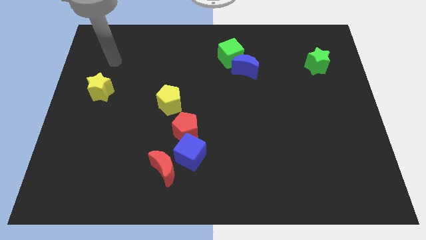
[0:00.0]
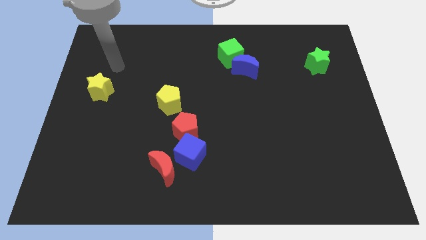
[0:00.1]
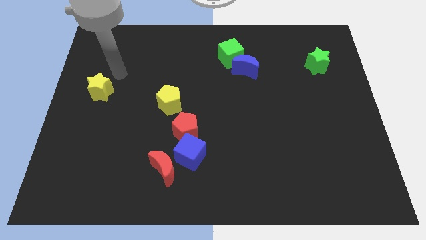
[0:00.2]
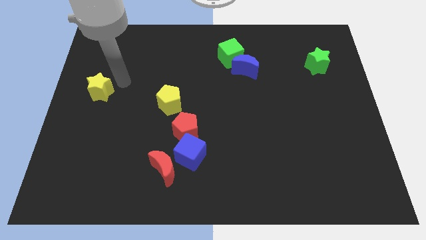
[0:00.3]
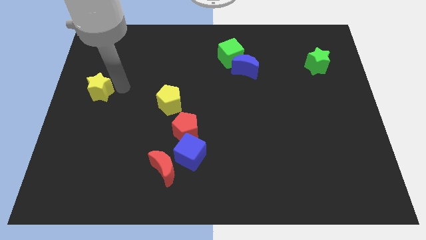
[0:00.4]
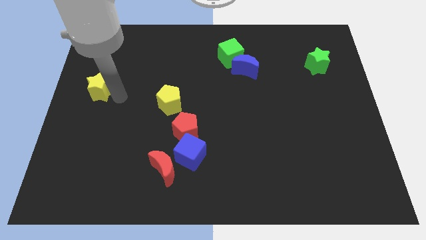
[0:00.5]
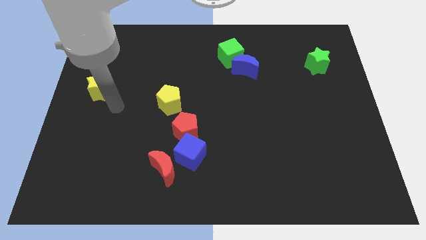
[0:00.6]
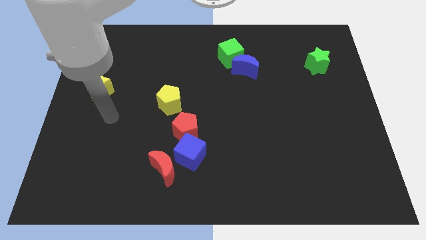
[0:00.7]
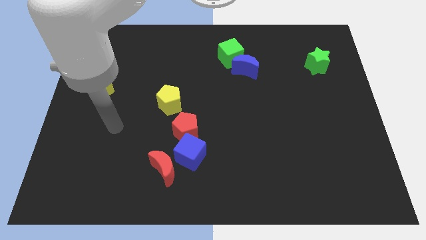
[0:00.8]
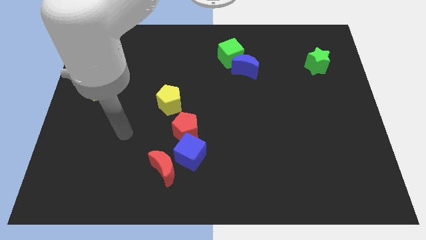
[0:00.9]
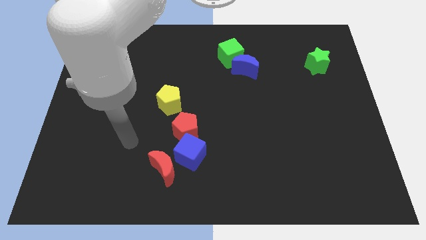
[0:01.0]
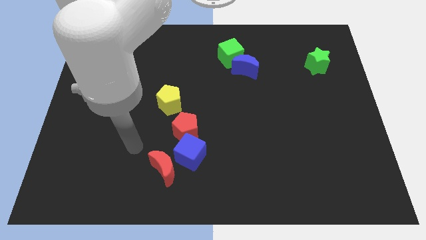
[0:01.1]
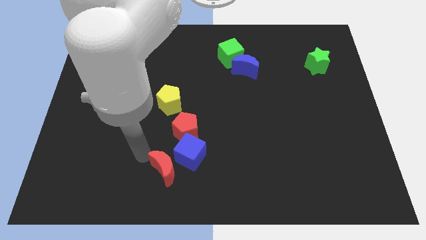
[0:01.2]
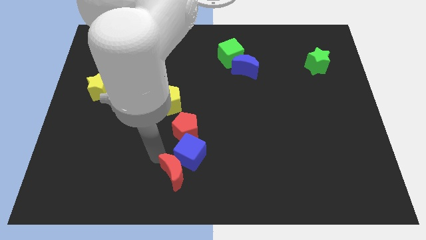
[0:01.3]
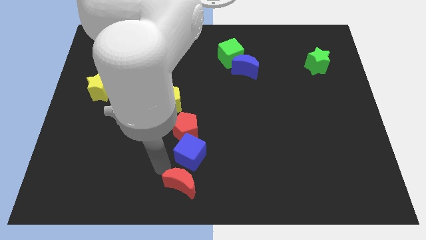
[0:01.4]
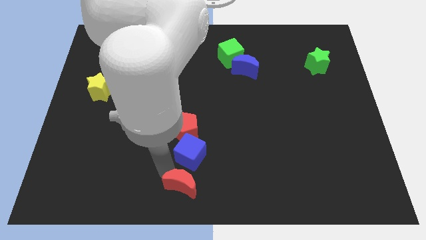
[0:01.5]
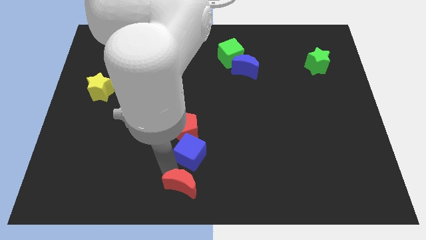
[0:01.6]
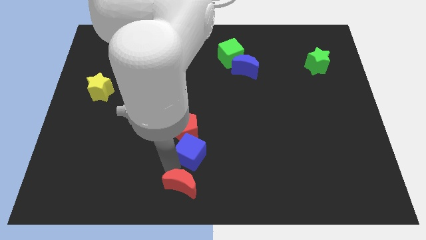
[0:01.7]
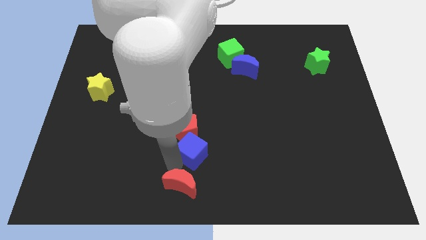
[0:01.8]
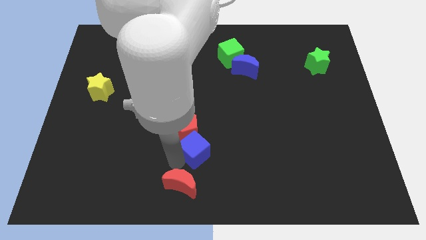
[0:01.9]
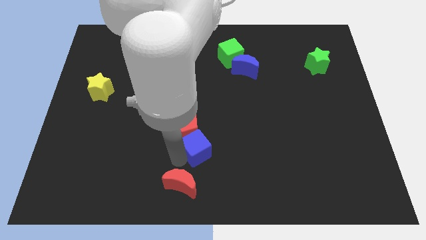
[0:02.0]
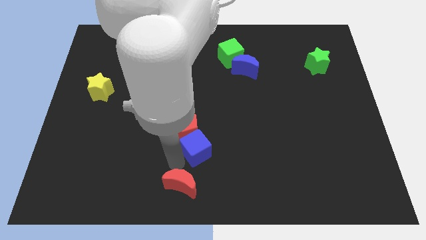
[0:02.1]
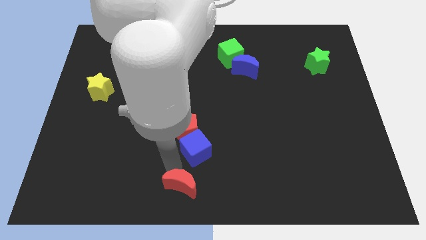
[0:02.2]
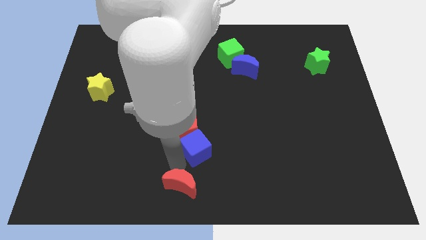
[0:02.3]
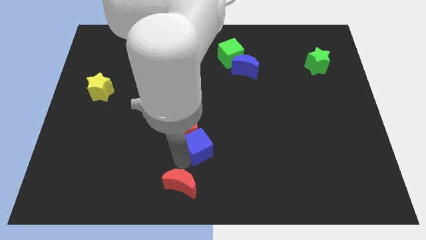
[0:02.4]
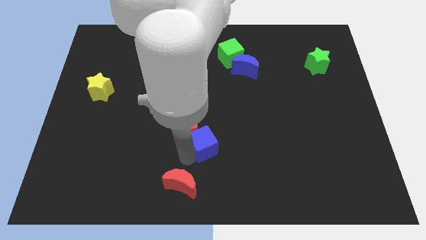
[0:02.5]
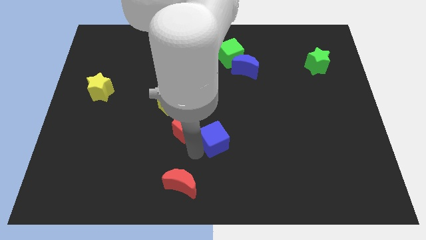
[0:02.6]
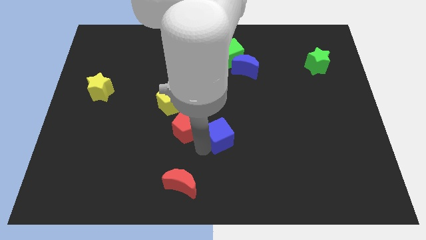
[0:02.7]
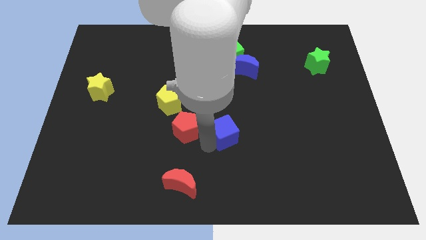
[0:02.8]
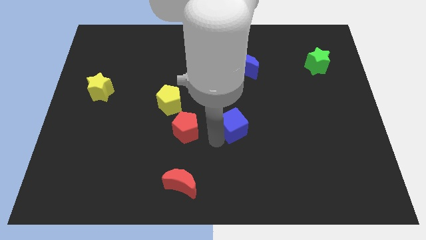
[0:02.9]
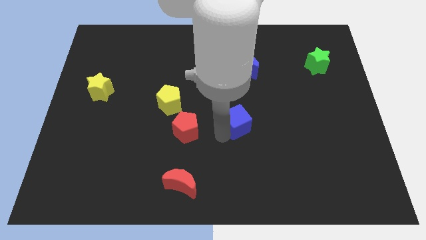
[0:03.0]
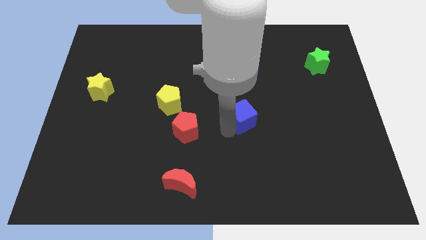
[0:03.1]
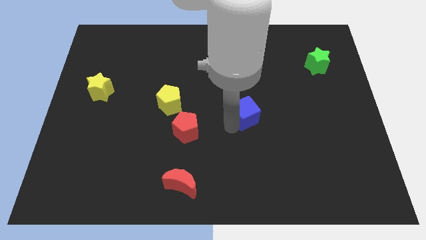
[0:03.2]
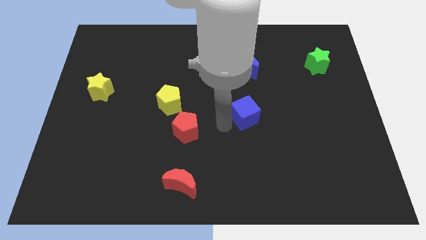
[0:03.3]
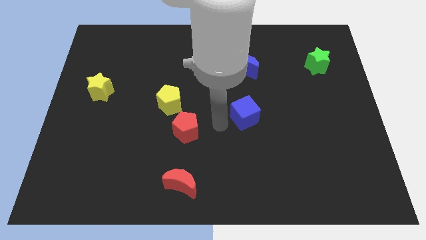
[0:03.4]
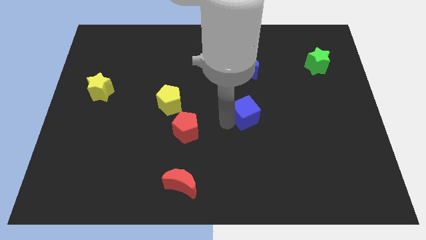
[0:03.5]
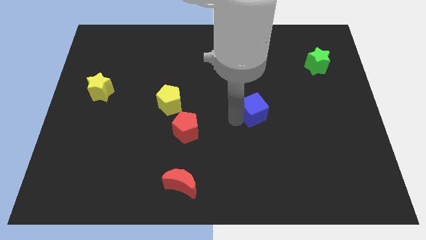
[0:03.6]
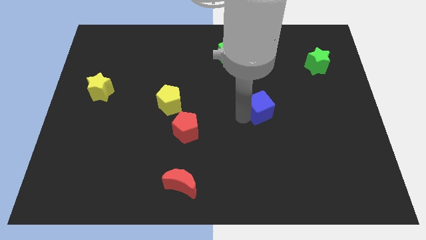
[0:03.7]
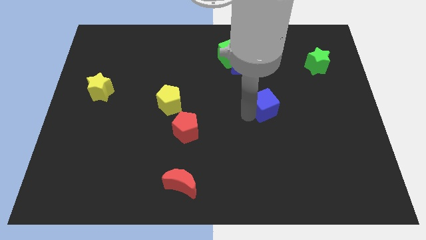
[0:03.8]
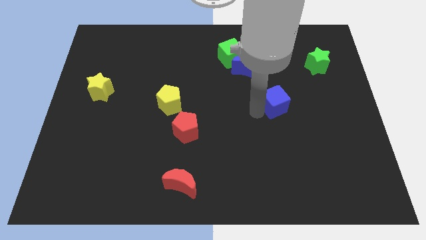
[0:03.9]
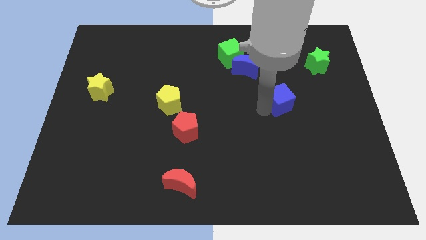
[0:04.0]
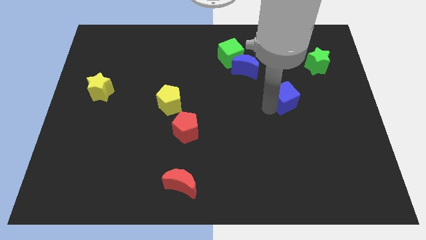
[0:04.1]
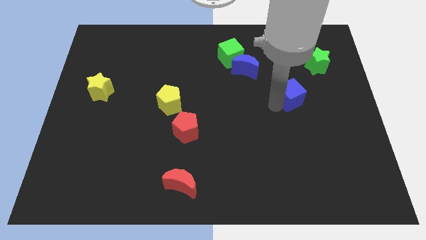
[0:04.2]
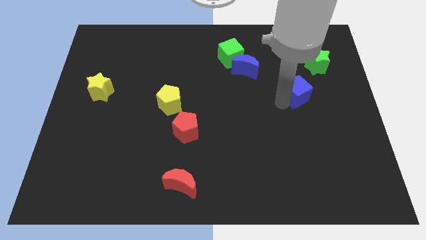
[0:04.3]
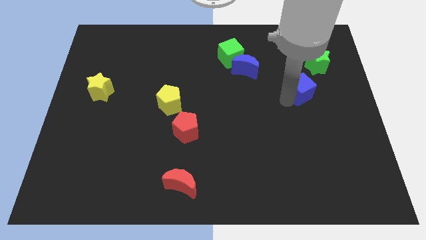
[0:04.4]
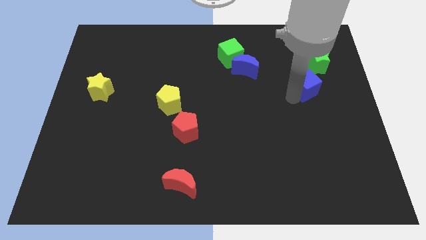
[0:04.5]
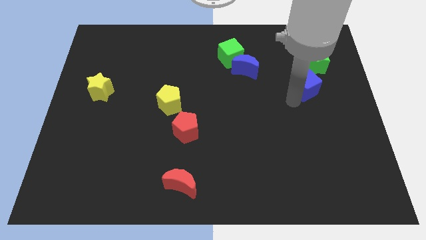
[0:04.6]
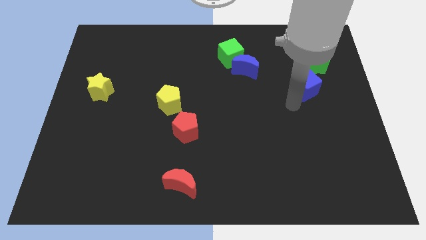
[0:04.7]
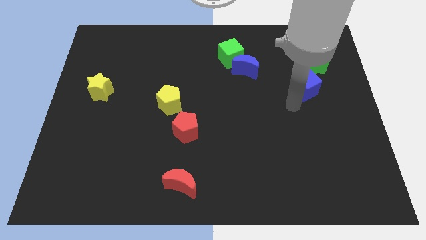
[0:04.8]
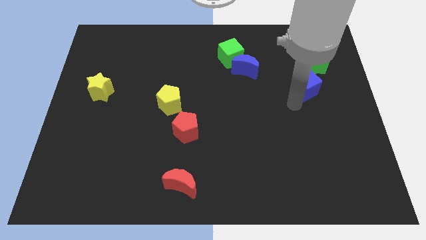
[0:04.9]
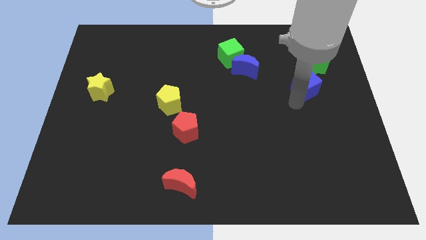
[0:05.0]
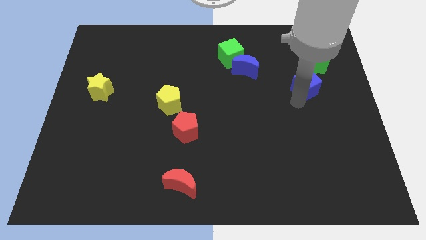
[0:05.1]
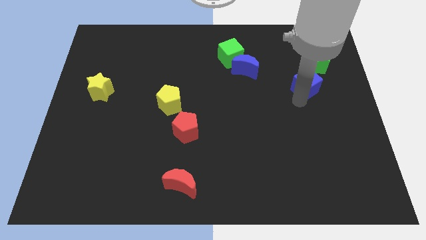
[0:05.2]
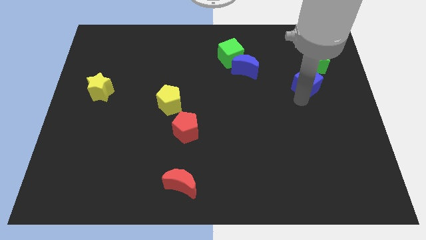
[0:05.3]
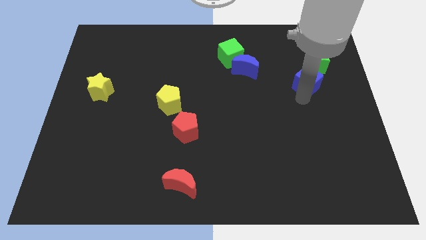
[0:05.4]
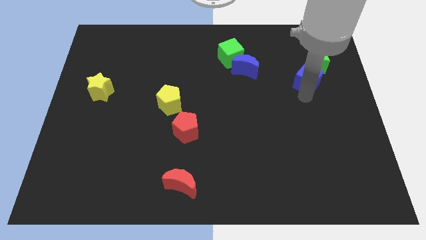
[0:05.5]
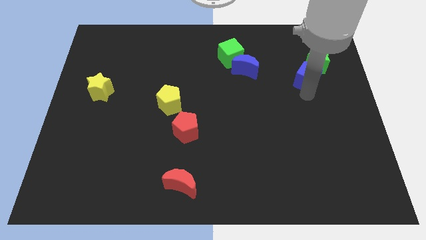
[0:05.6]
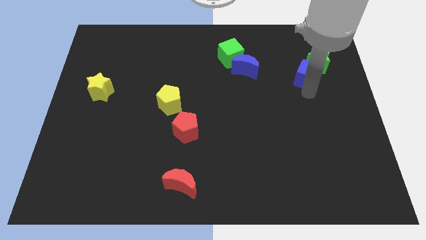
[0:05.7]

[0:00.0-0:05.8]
move the blue cube close to the green star
